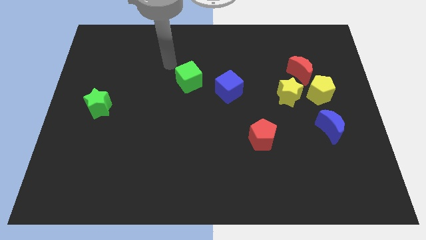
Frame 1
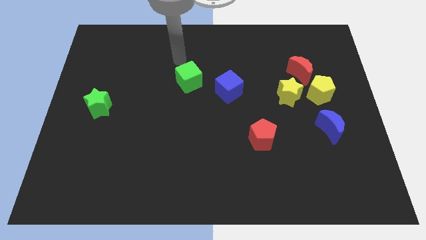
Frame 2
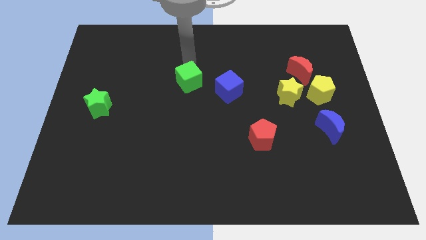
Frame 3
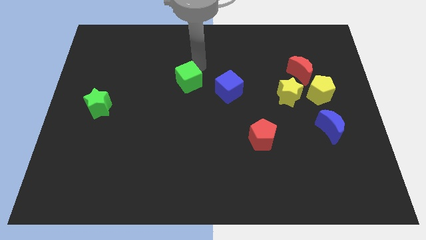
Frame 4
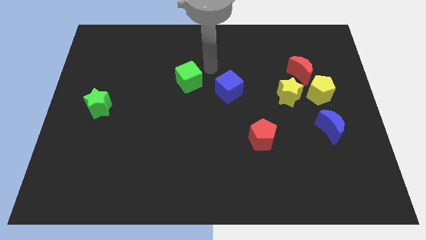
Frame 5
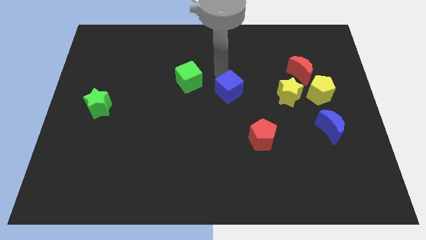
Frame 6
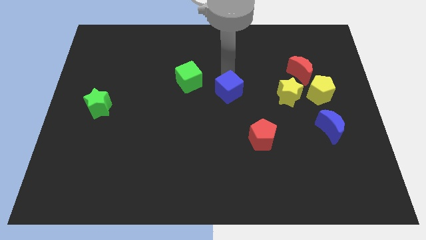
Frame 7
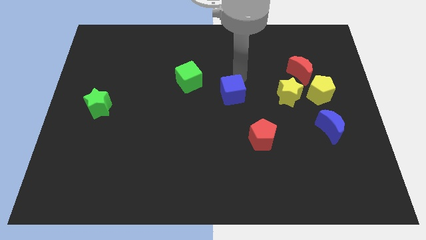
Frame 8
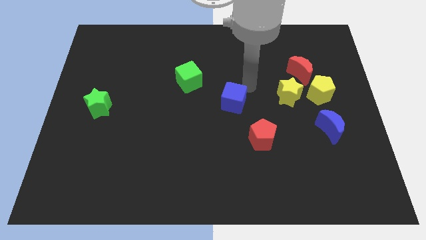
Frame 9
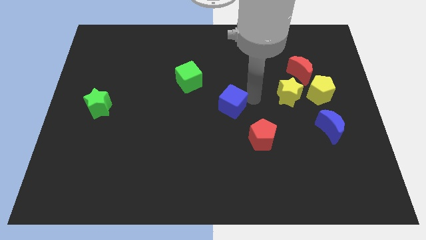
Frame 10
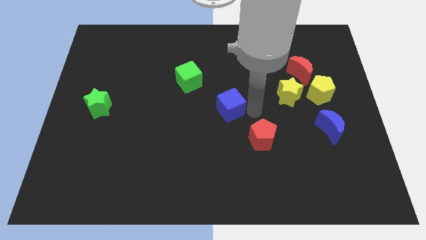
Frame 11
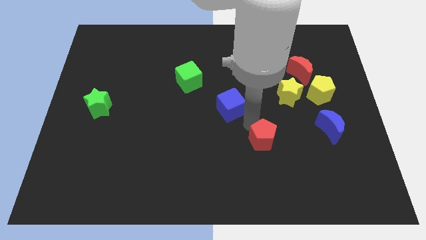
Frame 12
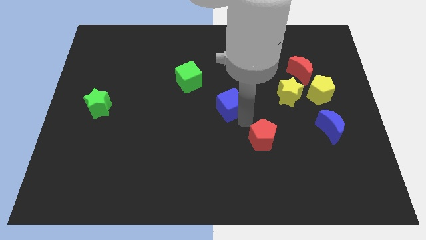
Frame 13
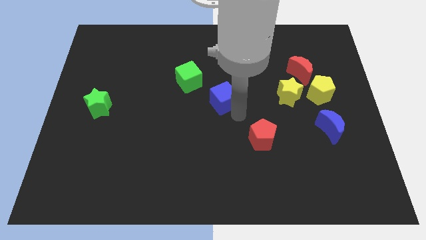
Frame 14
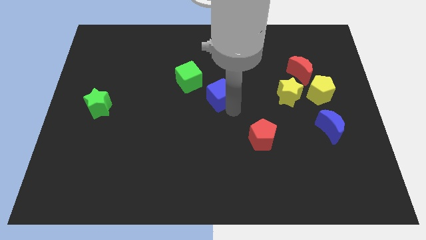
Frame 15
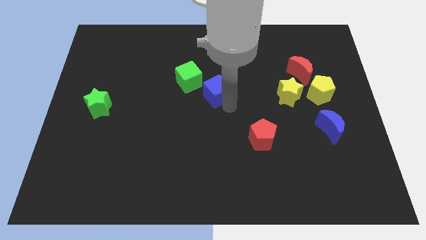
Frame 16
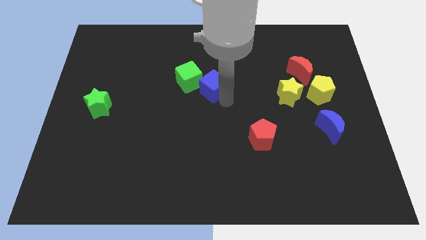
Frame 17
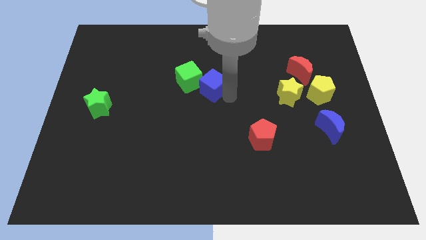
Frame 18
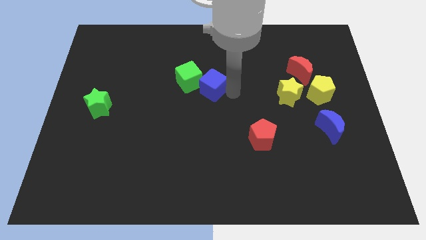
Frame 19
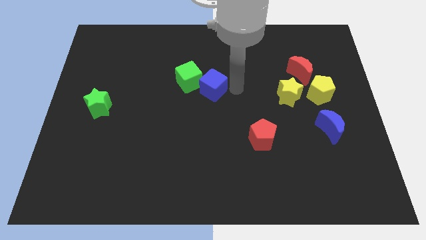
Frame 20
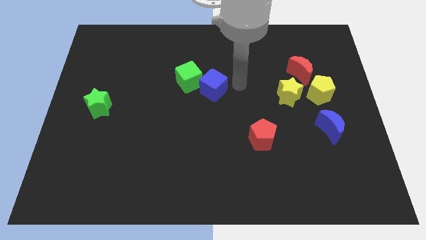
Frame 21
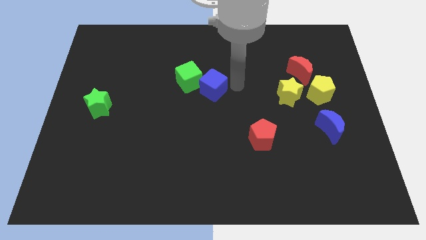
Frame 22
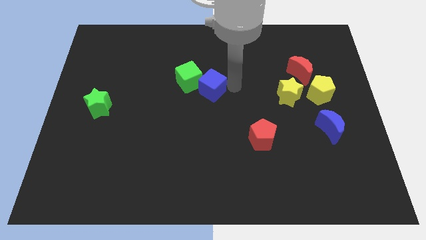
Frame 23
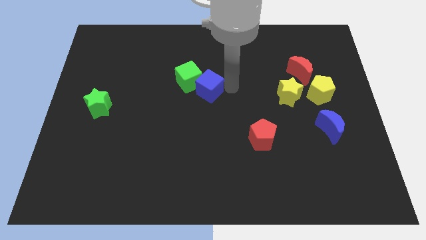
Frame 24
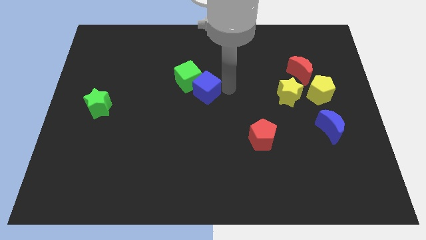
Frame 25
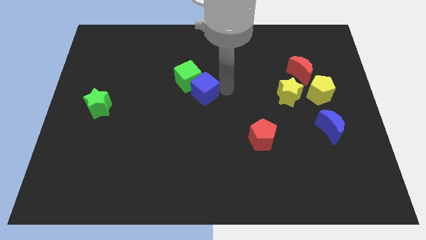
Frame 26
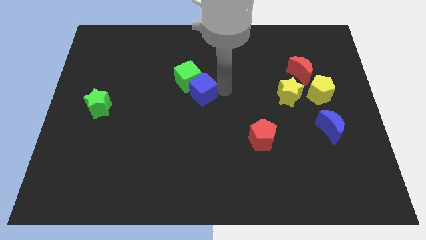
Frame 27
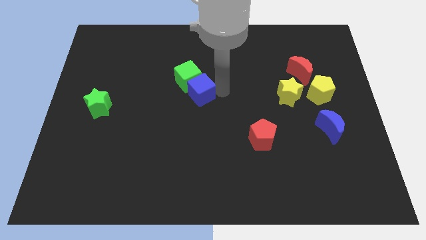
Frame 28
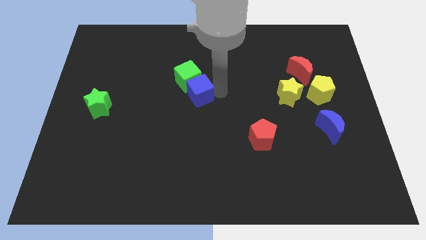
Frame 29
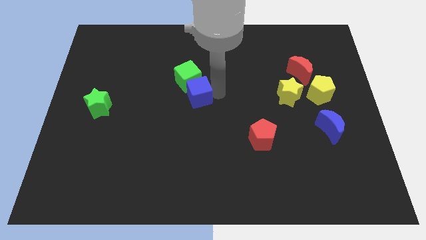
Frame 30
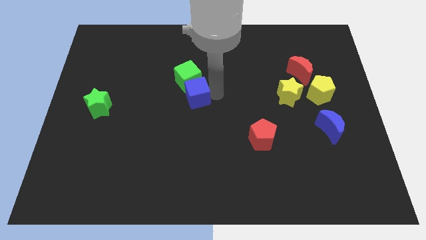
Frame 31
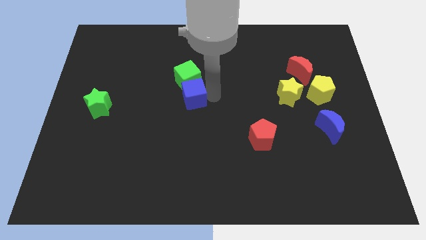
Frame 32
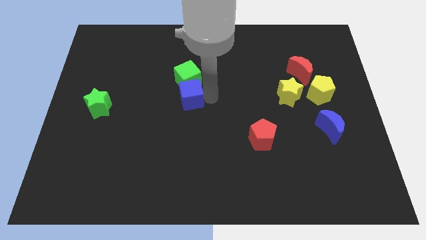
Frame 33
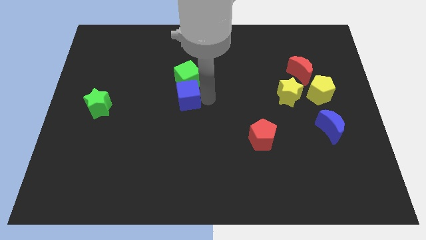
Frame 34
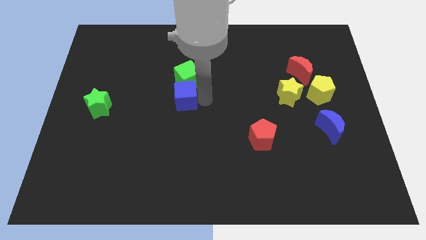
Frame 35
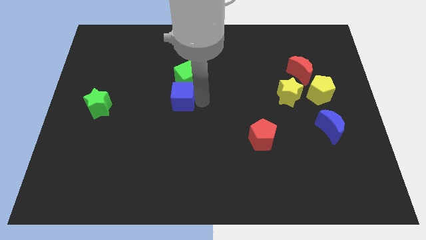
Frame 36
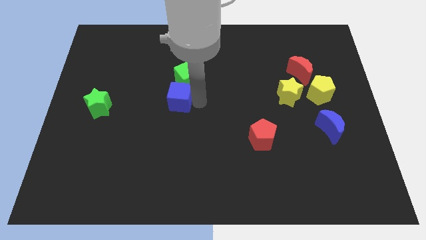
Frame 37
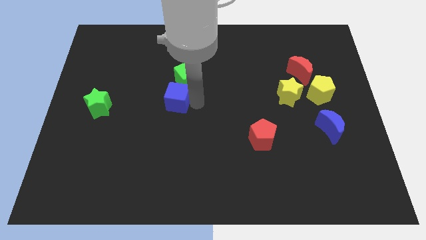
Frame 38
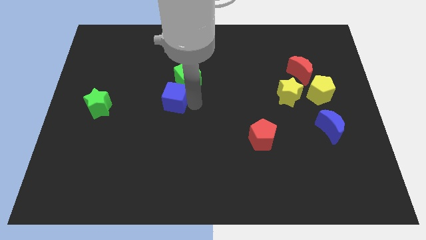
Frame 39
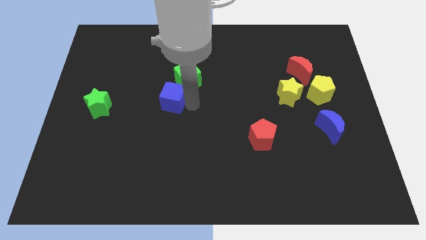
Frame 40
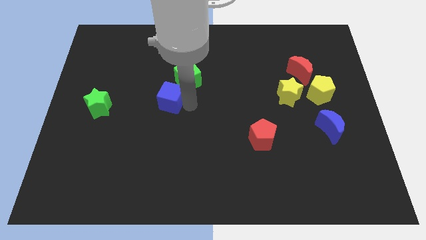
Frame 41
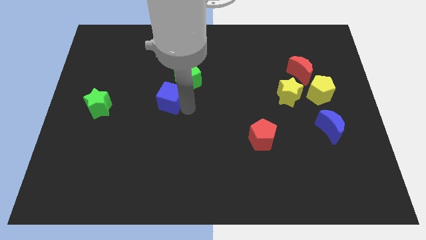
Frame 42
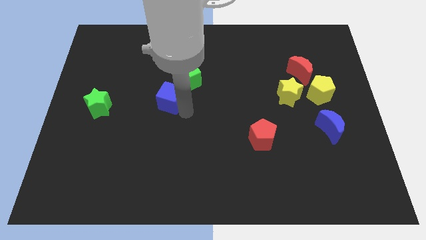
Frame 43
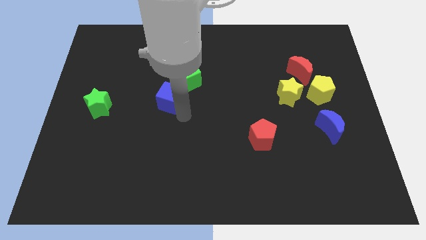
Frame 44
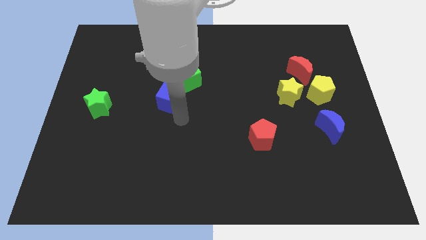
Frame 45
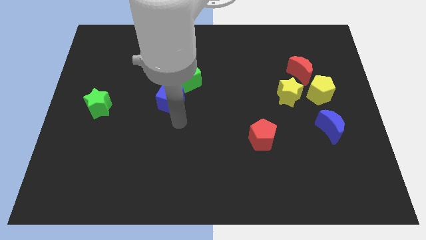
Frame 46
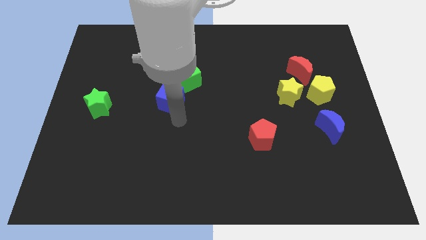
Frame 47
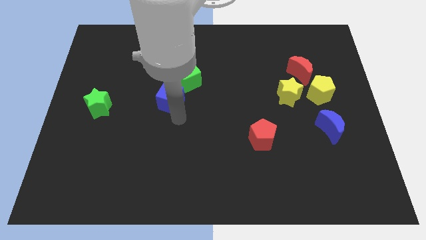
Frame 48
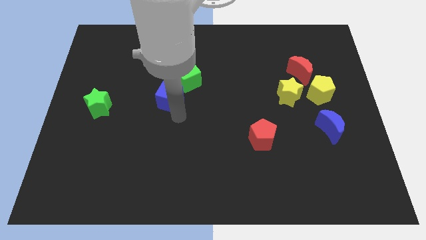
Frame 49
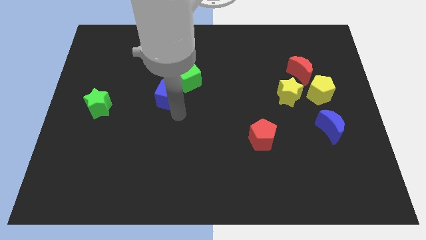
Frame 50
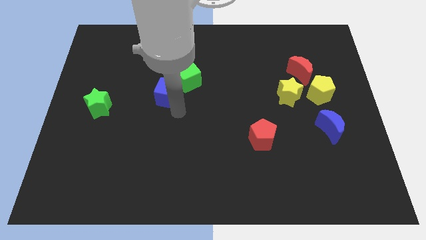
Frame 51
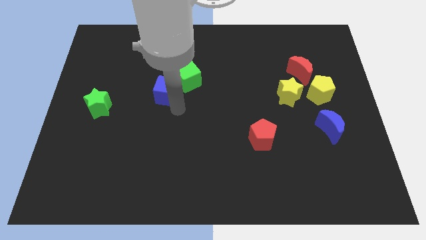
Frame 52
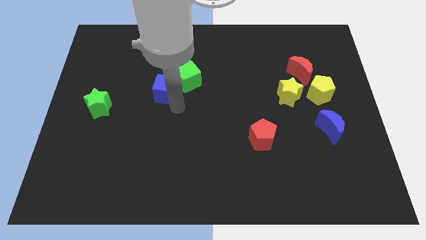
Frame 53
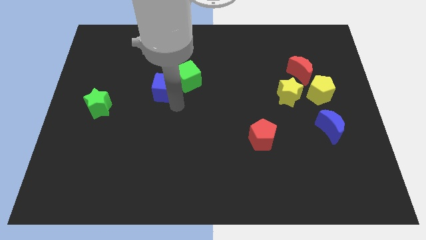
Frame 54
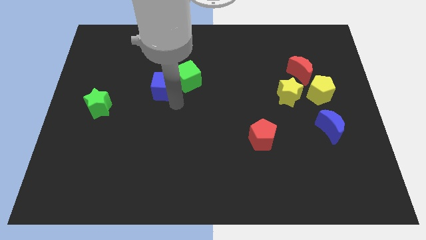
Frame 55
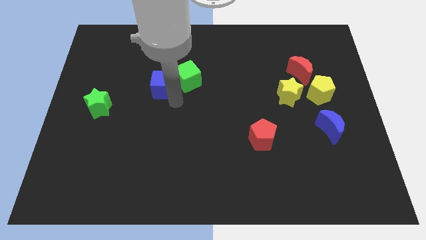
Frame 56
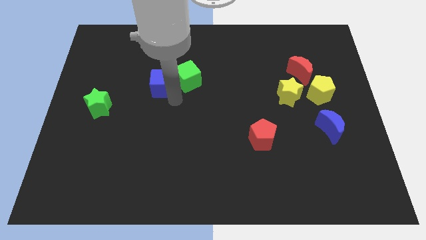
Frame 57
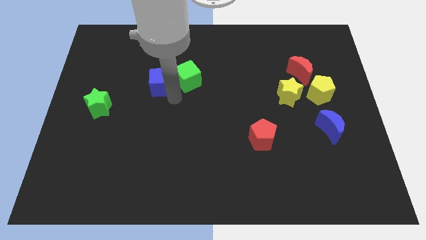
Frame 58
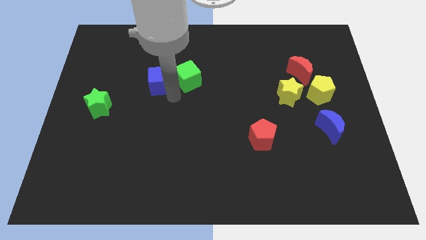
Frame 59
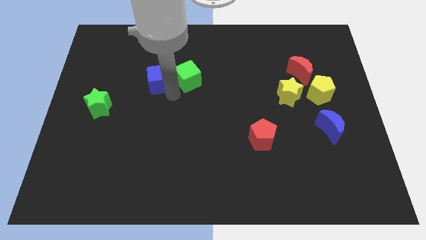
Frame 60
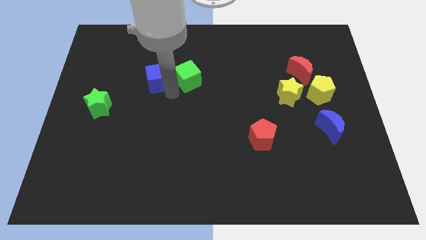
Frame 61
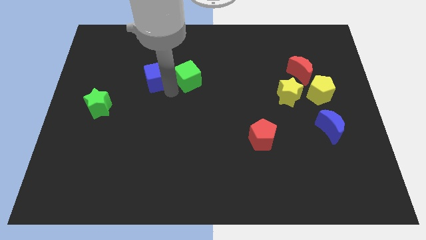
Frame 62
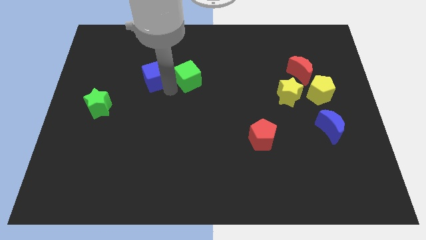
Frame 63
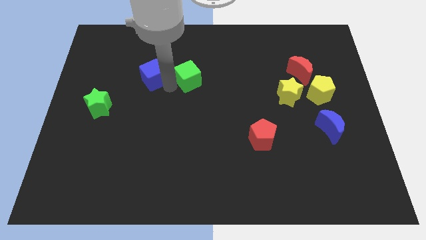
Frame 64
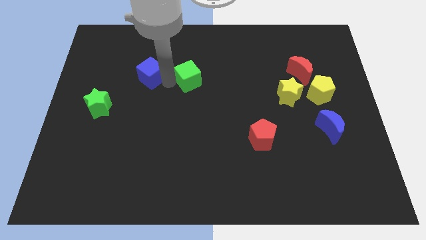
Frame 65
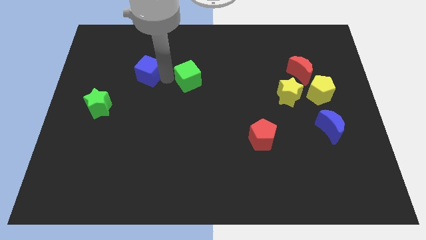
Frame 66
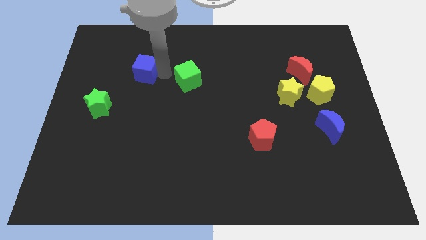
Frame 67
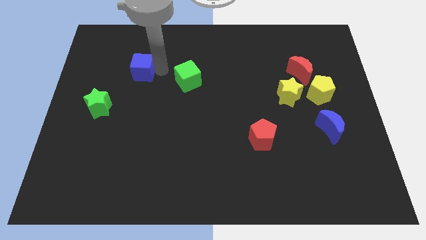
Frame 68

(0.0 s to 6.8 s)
push the blue cube to the left

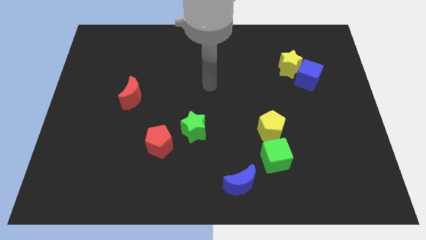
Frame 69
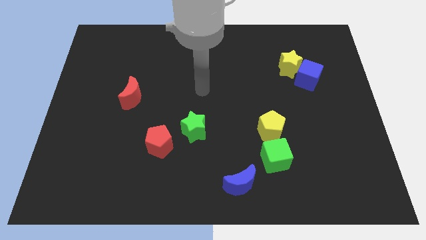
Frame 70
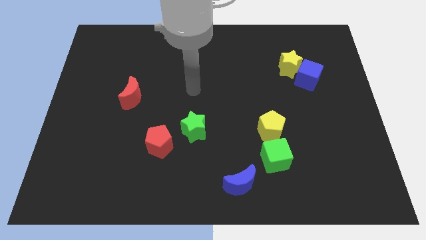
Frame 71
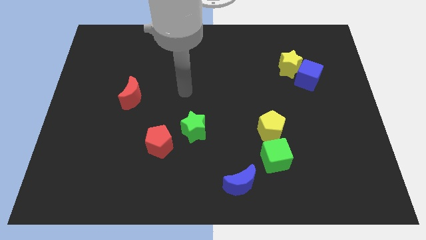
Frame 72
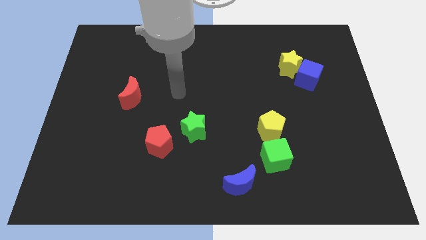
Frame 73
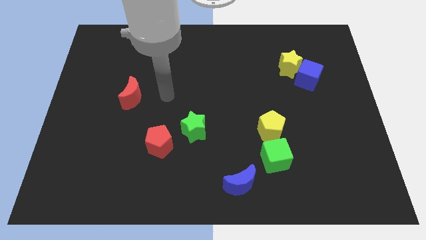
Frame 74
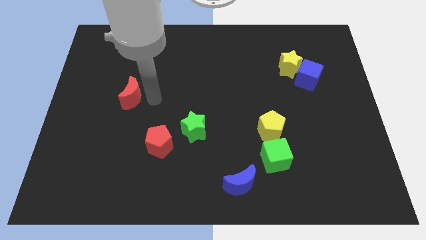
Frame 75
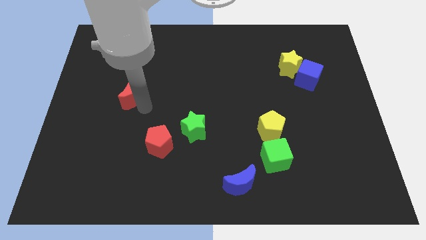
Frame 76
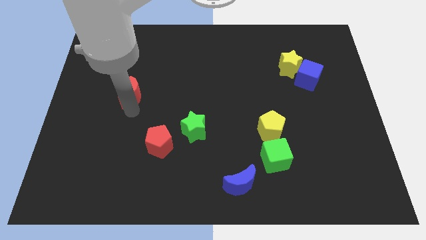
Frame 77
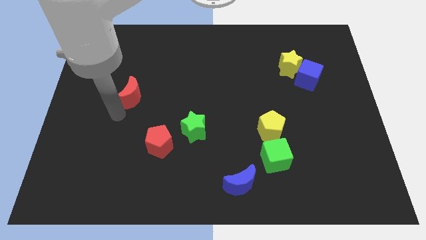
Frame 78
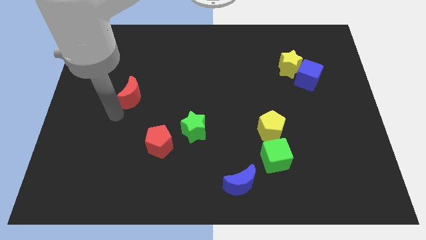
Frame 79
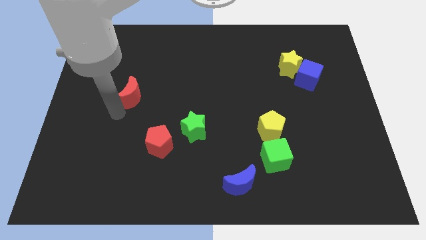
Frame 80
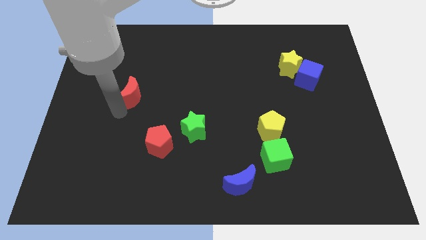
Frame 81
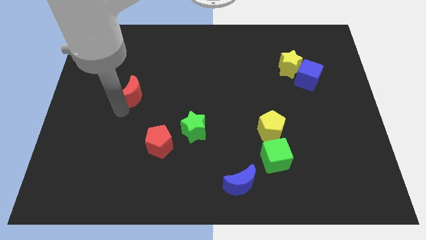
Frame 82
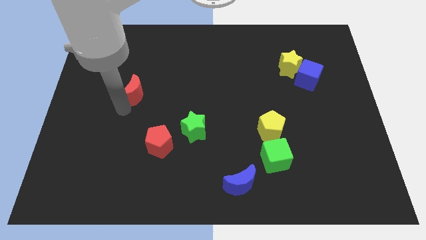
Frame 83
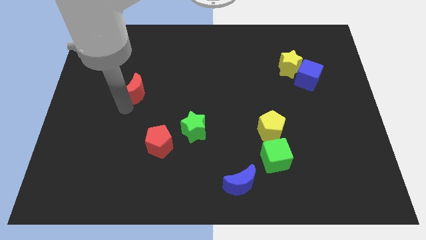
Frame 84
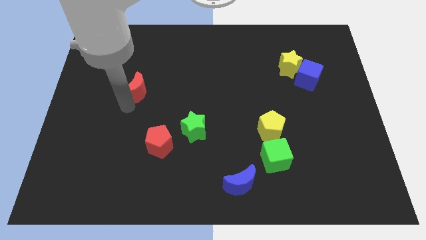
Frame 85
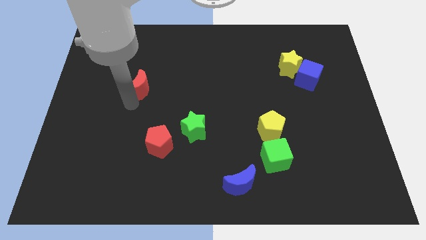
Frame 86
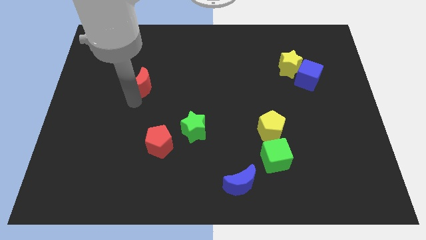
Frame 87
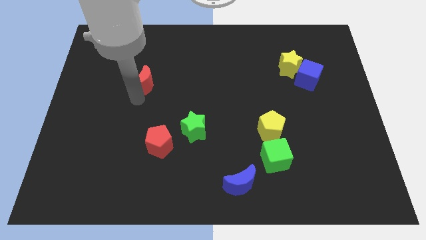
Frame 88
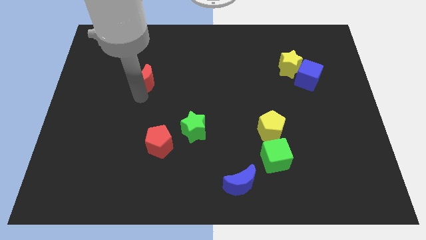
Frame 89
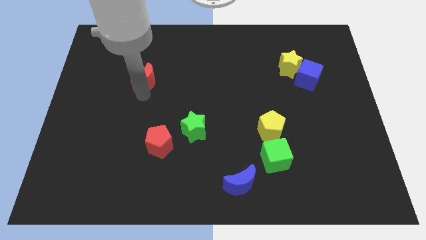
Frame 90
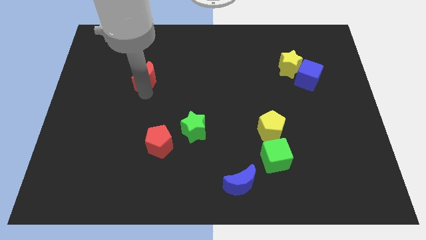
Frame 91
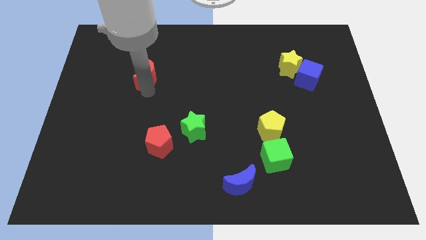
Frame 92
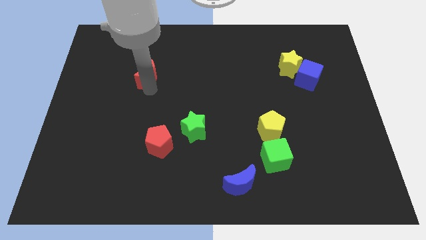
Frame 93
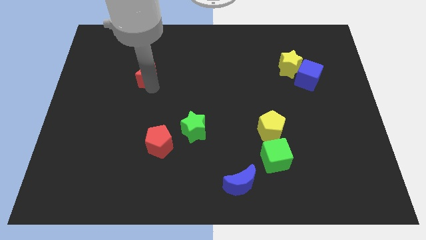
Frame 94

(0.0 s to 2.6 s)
slightly push the red moon up and then right
